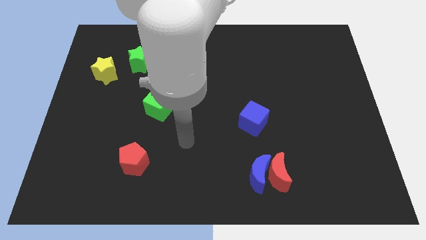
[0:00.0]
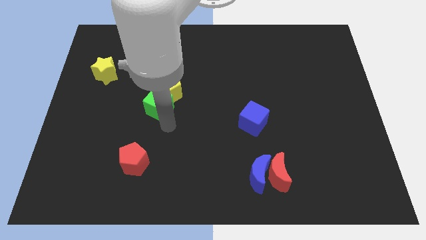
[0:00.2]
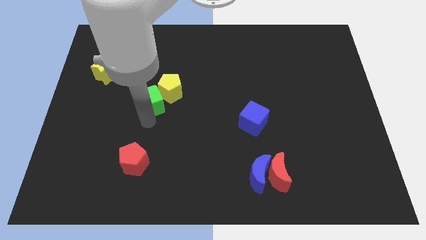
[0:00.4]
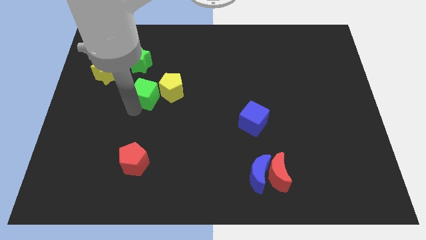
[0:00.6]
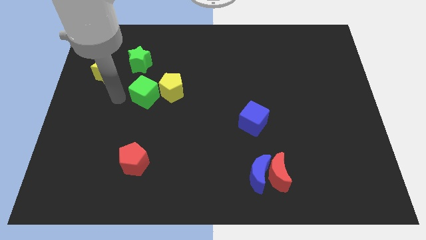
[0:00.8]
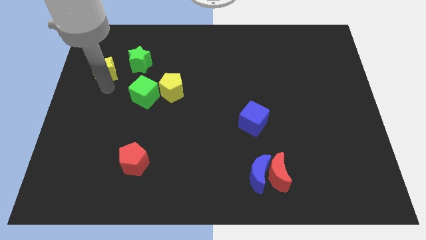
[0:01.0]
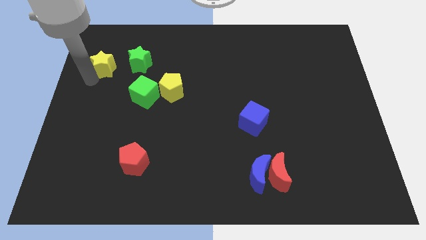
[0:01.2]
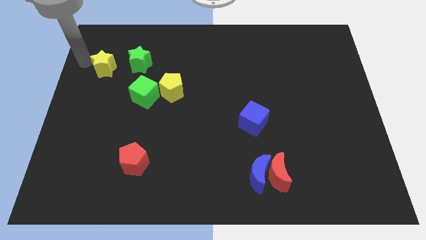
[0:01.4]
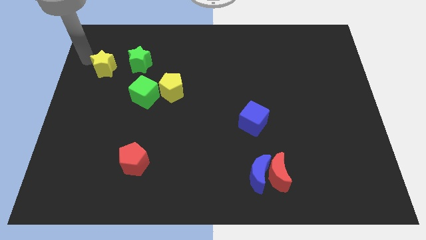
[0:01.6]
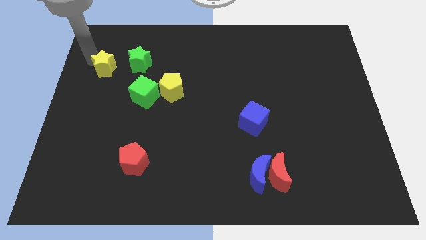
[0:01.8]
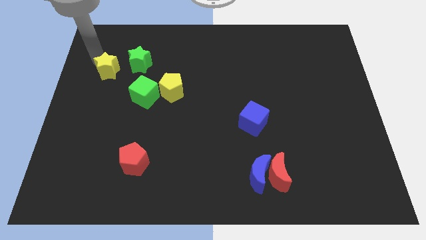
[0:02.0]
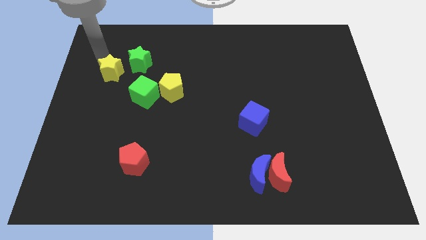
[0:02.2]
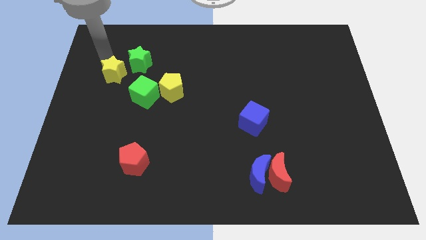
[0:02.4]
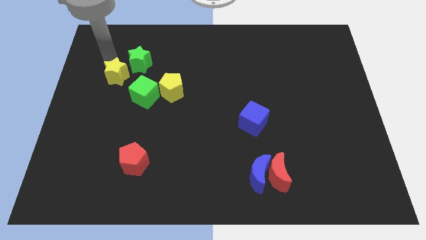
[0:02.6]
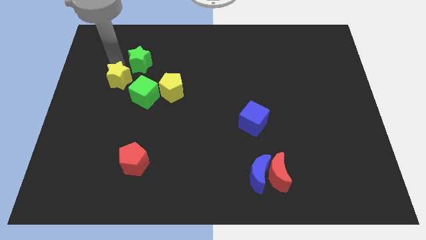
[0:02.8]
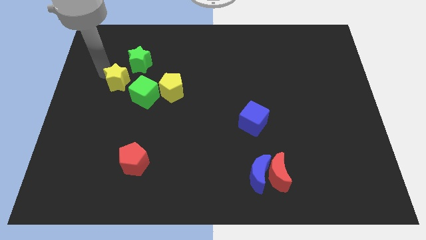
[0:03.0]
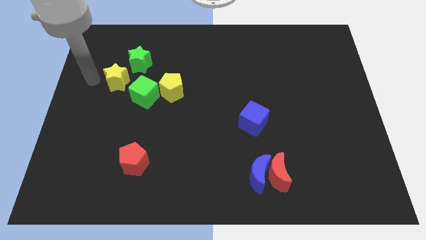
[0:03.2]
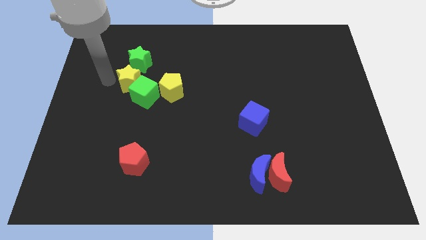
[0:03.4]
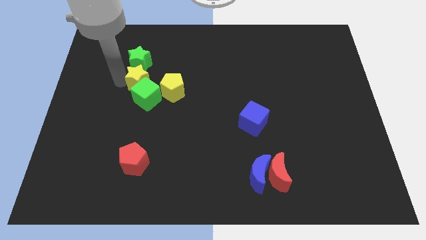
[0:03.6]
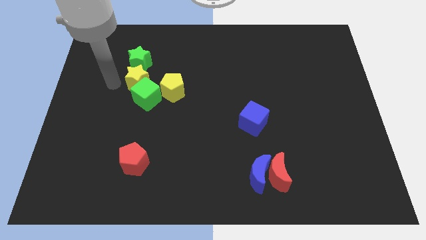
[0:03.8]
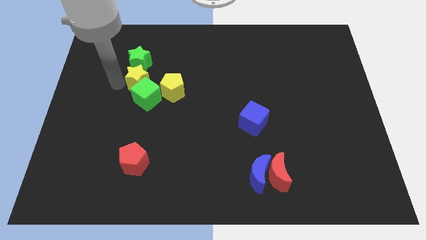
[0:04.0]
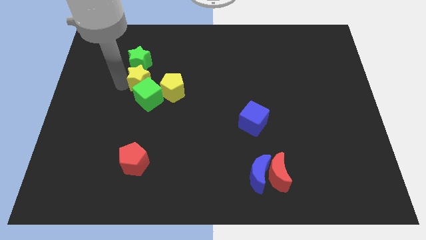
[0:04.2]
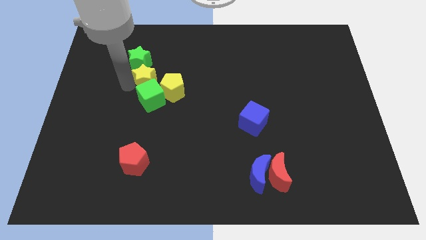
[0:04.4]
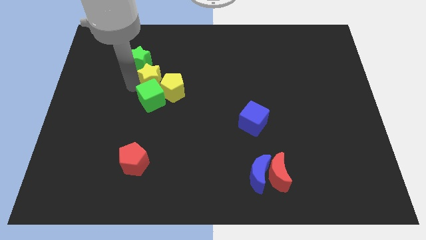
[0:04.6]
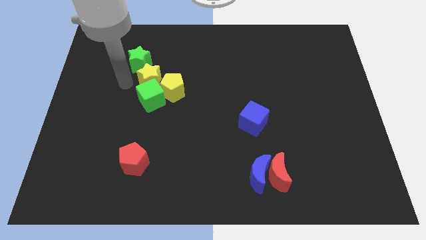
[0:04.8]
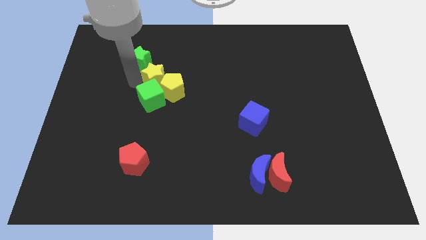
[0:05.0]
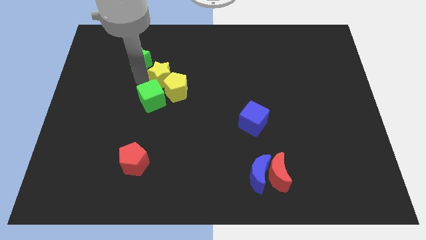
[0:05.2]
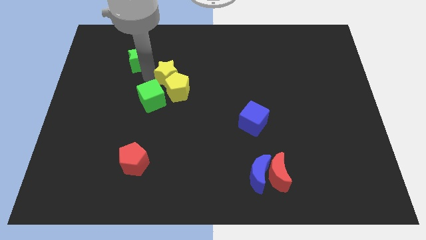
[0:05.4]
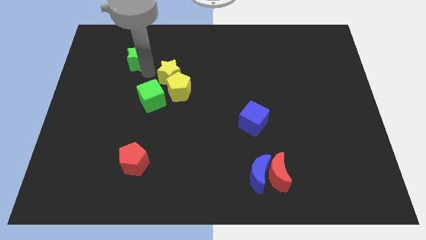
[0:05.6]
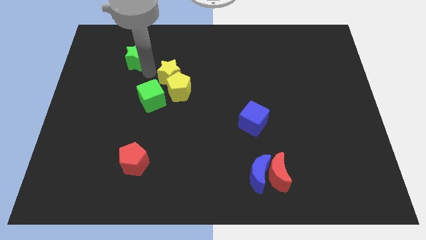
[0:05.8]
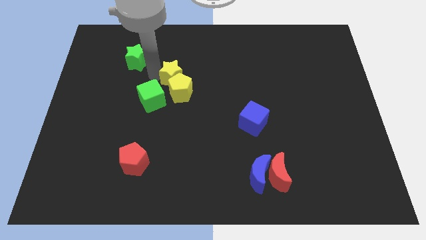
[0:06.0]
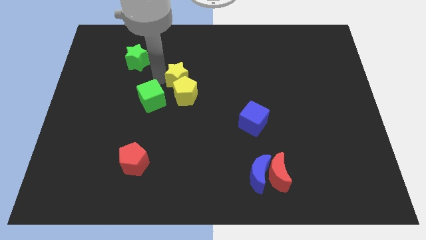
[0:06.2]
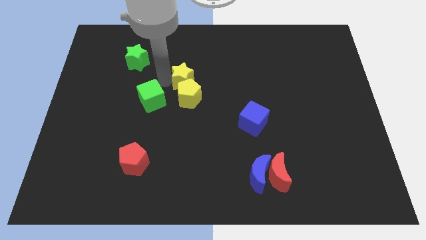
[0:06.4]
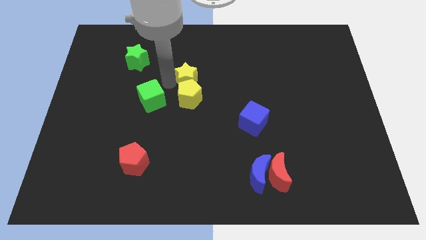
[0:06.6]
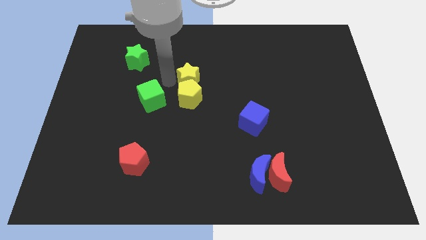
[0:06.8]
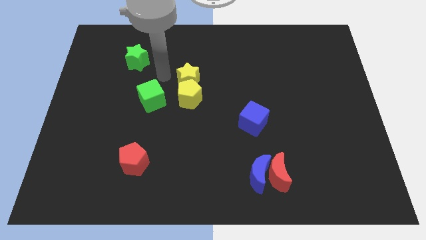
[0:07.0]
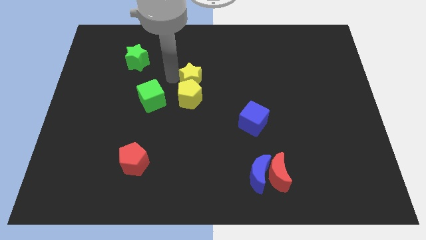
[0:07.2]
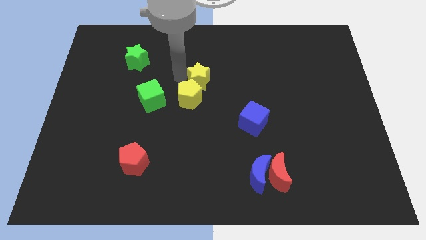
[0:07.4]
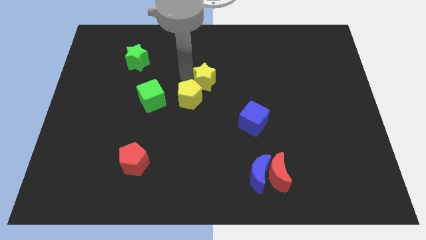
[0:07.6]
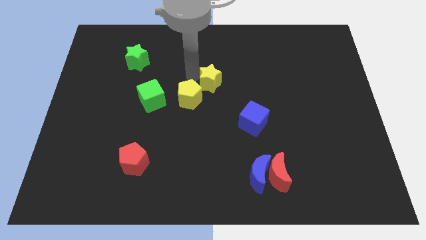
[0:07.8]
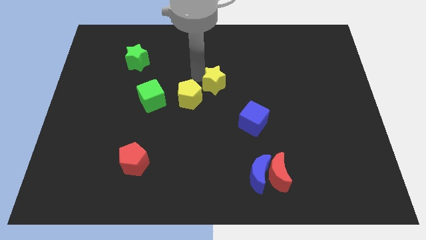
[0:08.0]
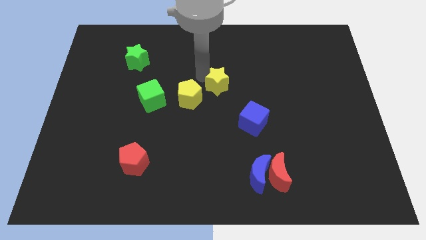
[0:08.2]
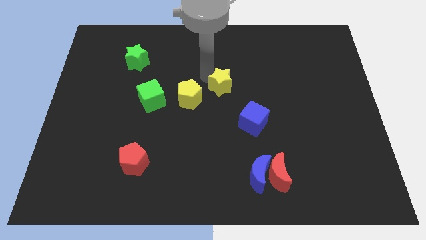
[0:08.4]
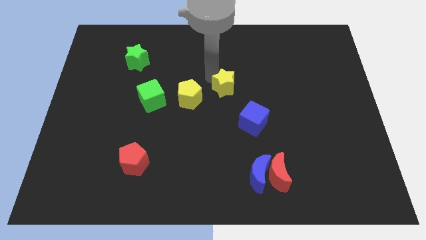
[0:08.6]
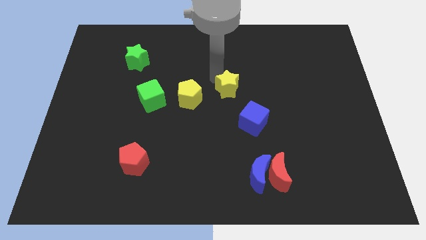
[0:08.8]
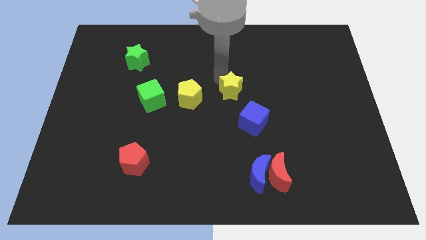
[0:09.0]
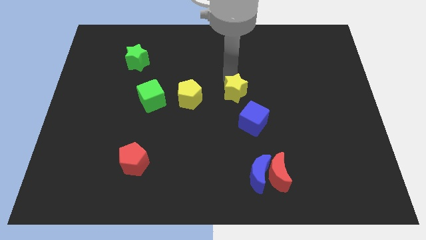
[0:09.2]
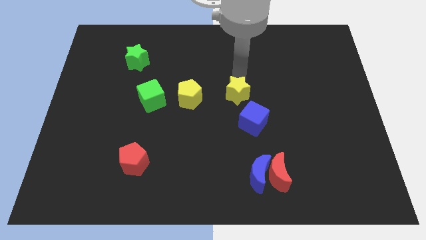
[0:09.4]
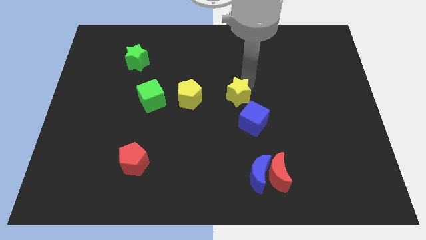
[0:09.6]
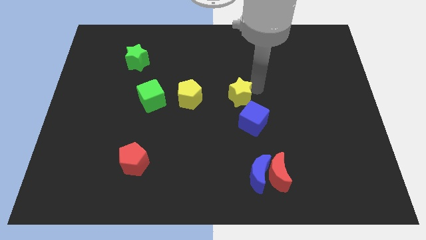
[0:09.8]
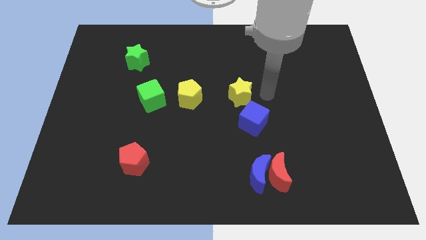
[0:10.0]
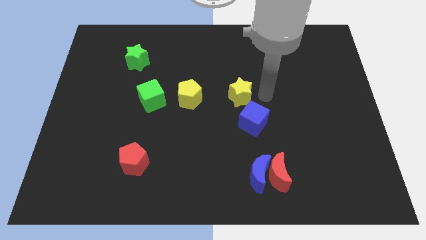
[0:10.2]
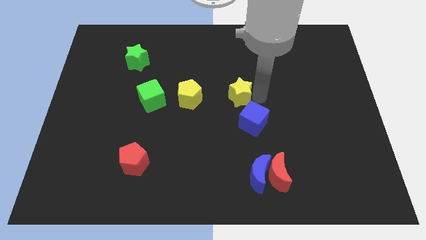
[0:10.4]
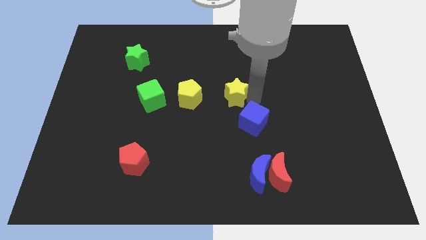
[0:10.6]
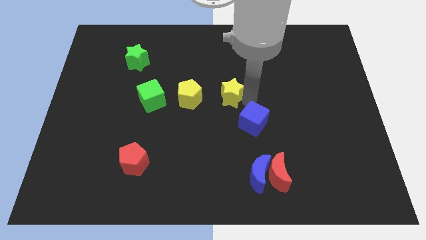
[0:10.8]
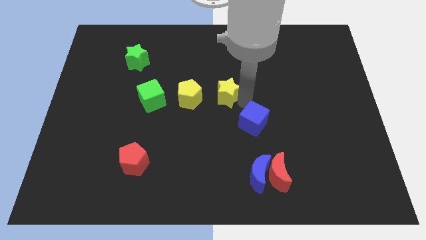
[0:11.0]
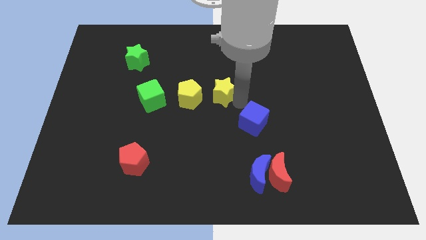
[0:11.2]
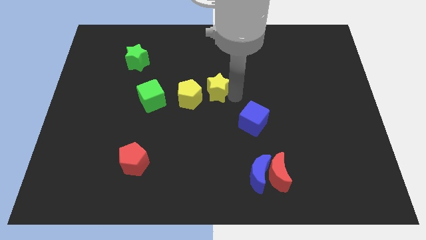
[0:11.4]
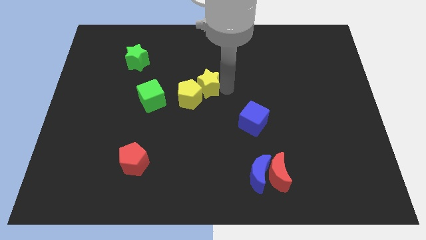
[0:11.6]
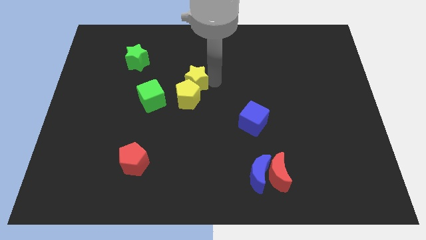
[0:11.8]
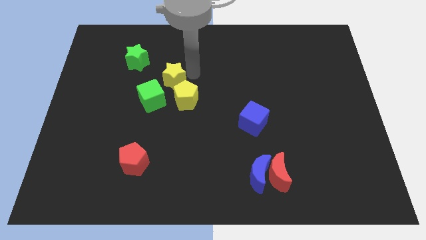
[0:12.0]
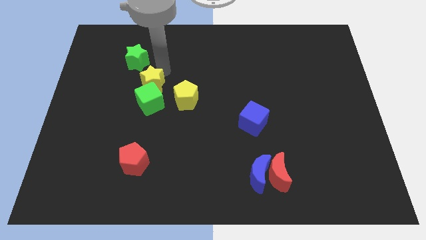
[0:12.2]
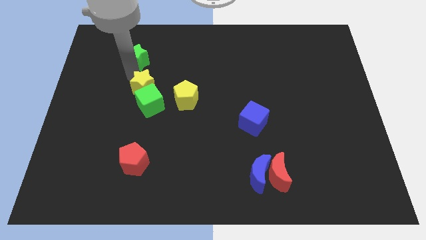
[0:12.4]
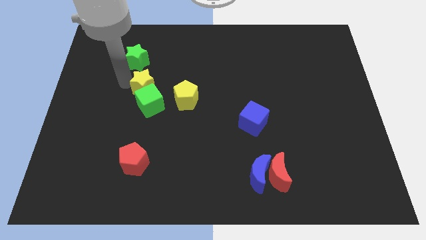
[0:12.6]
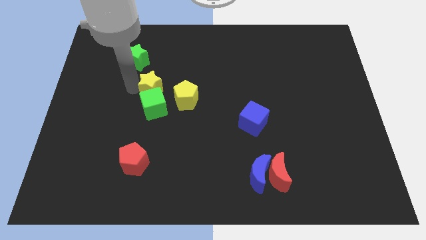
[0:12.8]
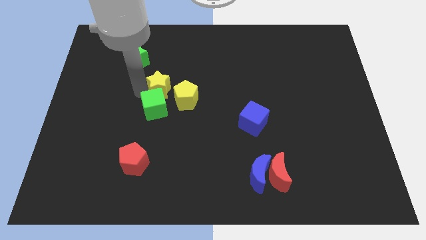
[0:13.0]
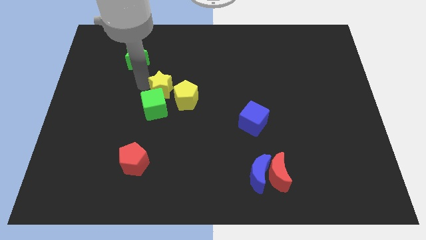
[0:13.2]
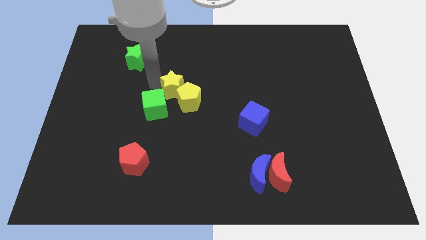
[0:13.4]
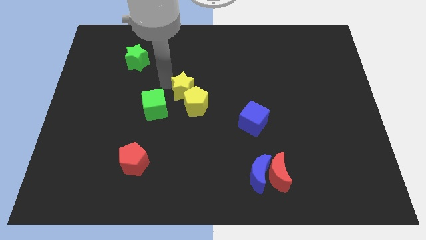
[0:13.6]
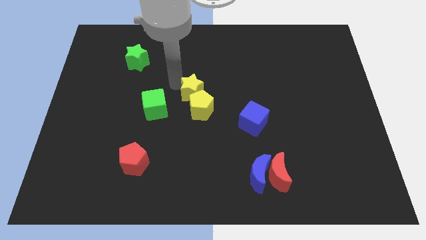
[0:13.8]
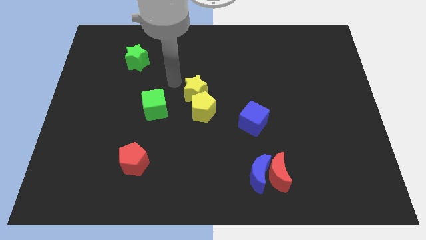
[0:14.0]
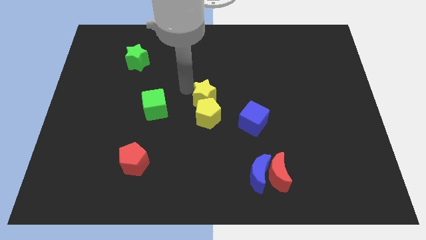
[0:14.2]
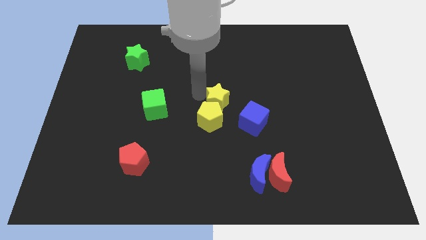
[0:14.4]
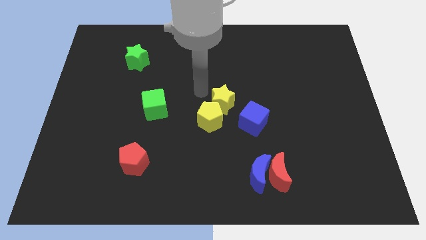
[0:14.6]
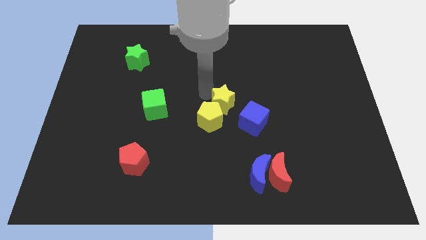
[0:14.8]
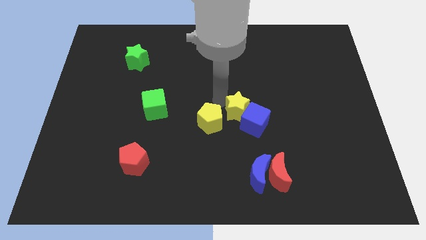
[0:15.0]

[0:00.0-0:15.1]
move the yellow star towards the blue cube
